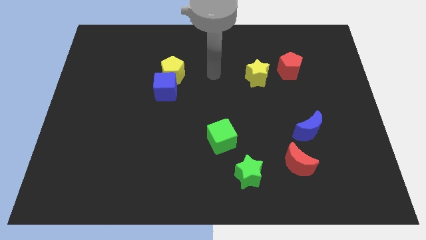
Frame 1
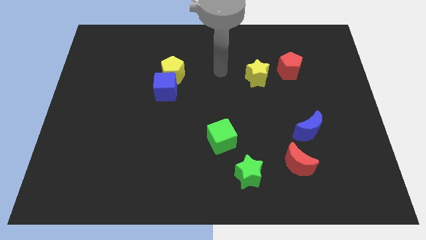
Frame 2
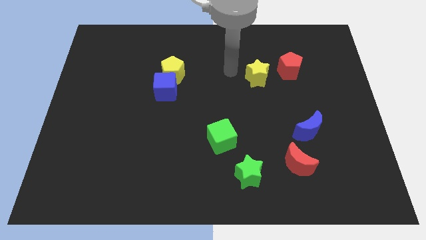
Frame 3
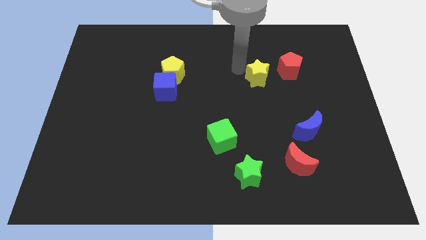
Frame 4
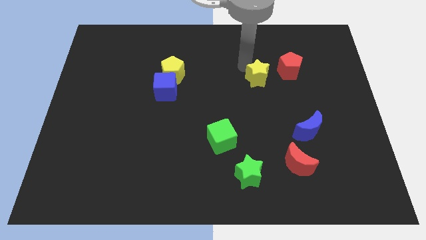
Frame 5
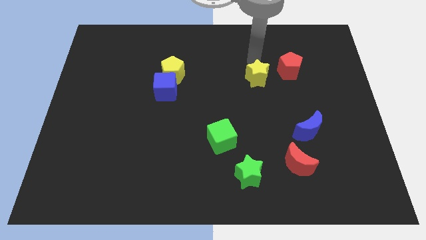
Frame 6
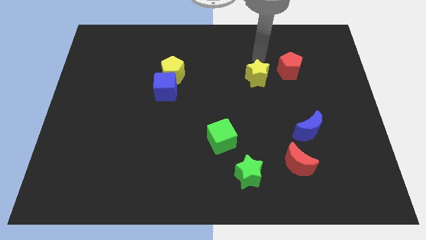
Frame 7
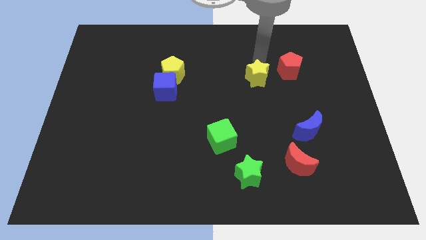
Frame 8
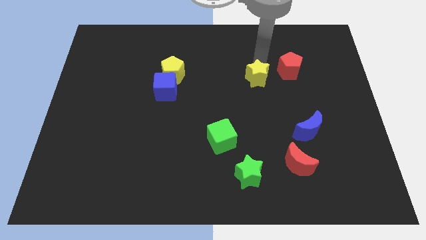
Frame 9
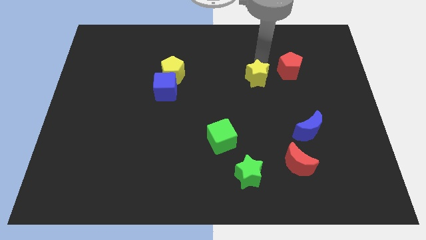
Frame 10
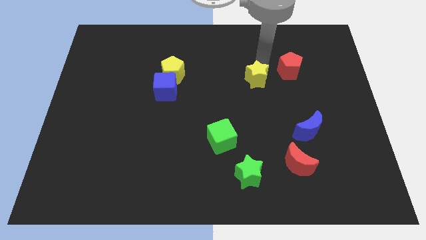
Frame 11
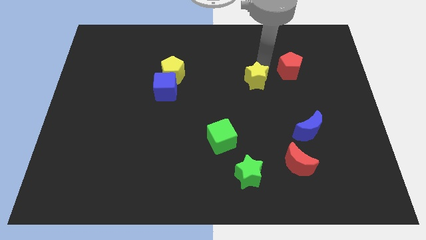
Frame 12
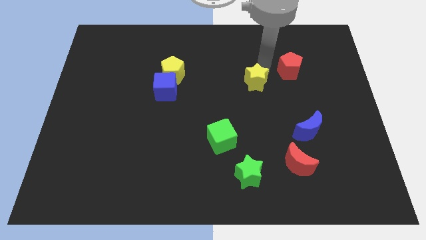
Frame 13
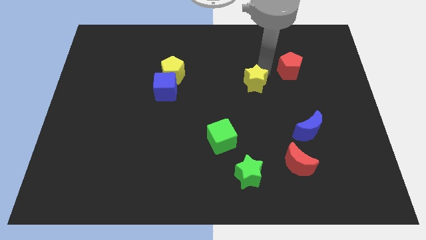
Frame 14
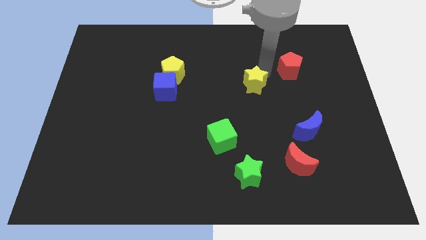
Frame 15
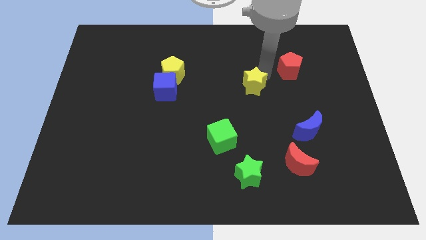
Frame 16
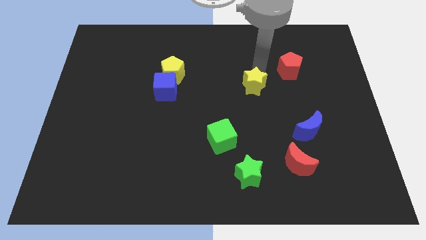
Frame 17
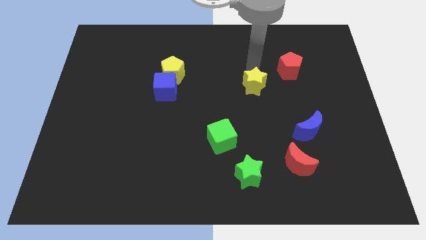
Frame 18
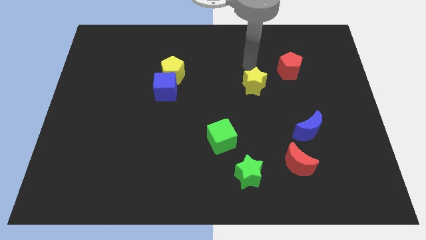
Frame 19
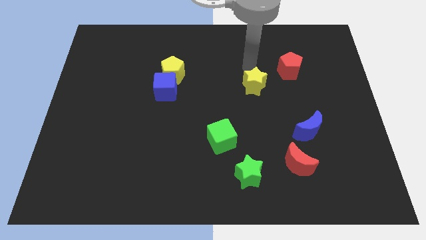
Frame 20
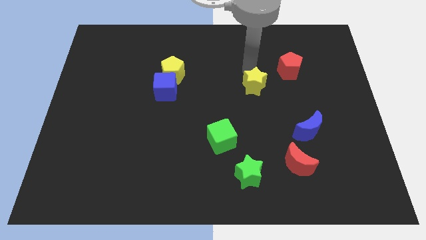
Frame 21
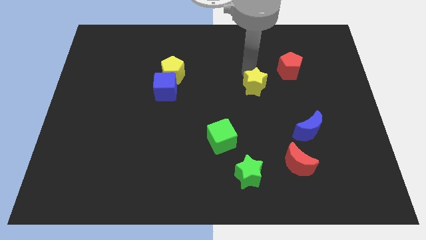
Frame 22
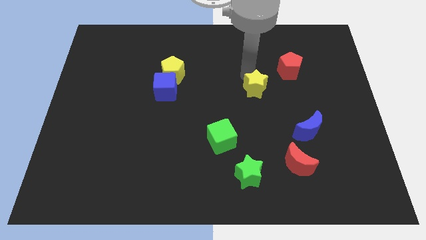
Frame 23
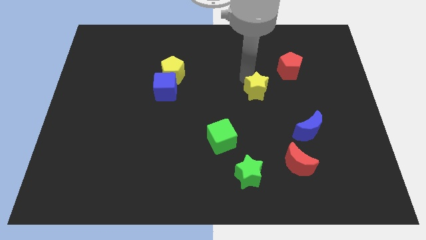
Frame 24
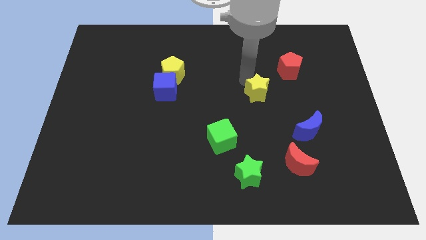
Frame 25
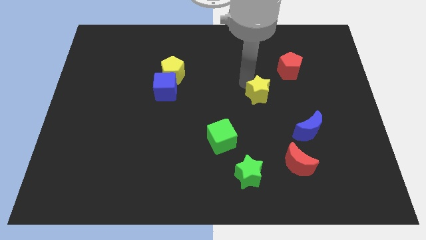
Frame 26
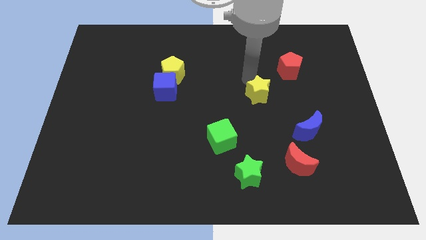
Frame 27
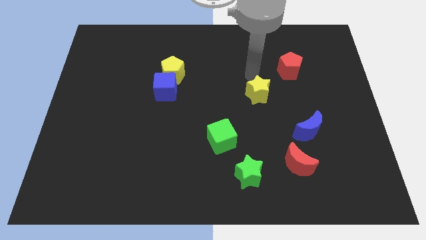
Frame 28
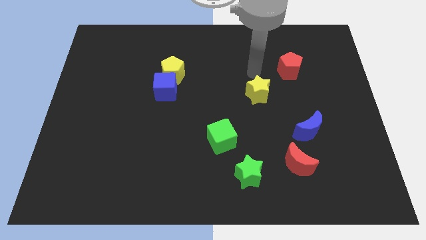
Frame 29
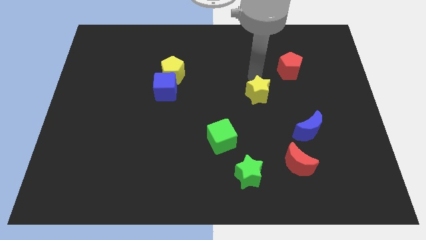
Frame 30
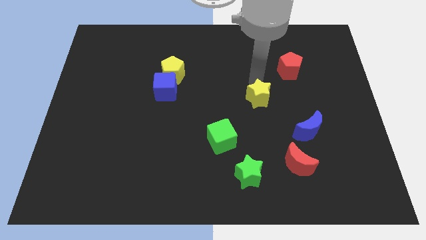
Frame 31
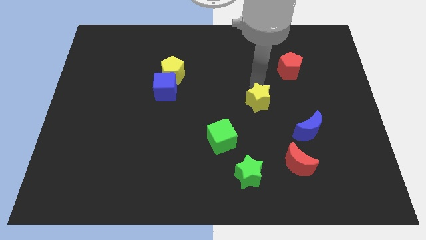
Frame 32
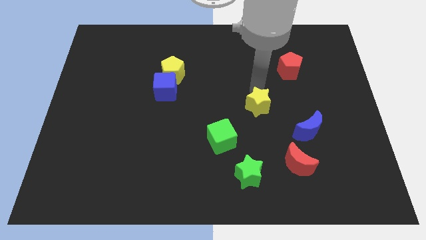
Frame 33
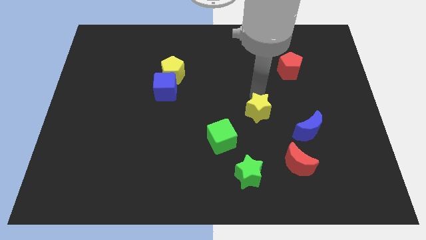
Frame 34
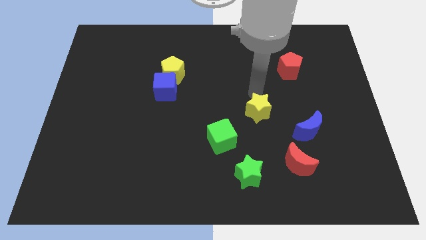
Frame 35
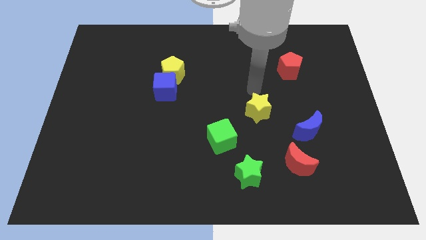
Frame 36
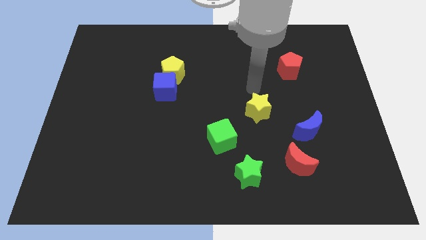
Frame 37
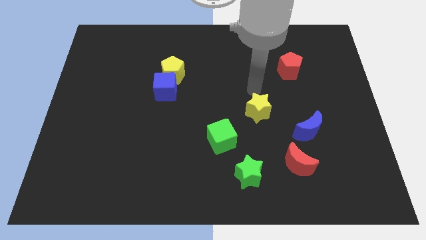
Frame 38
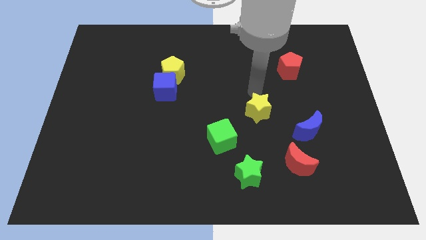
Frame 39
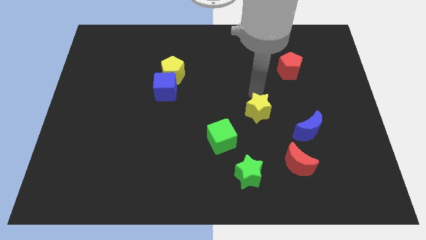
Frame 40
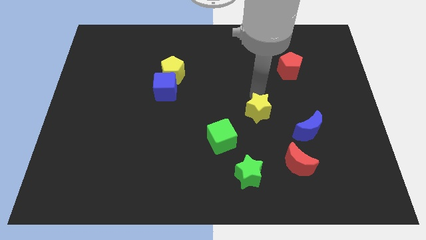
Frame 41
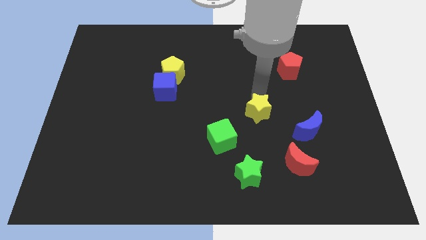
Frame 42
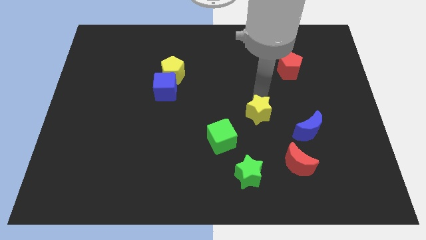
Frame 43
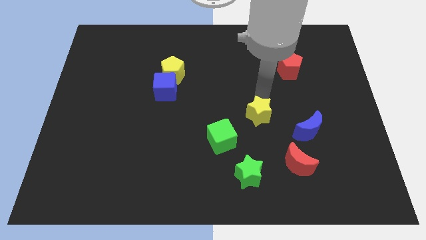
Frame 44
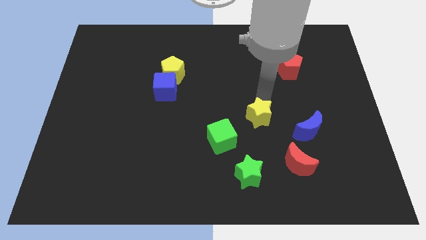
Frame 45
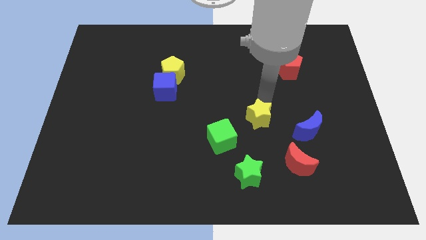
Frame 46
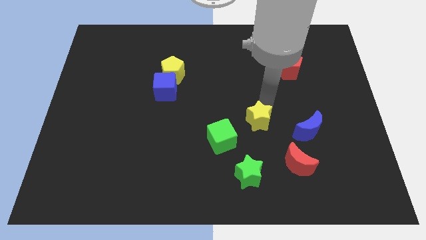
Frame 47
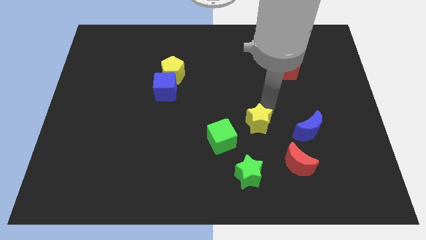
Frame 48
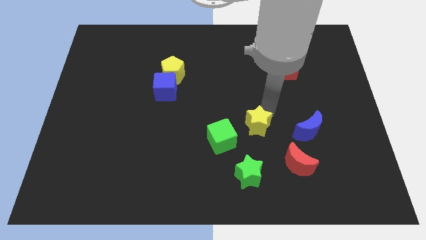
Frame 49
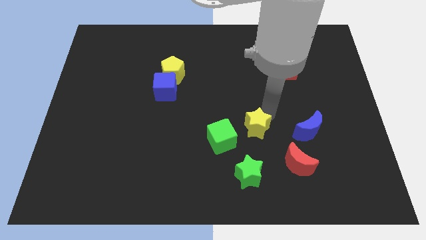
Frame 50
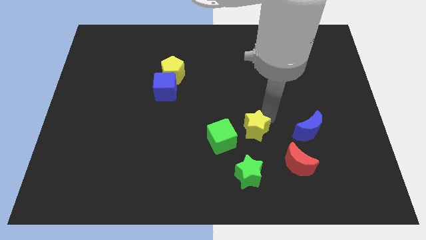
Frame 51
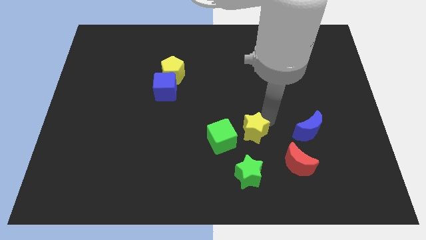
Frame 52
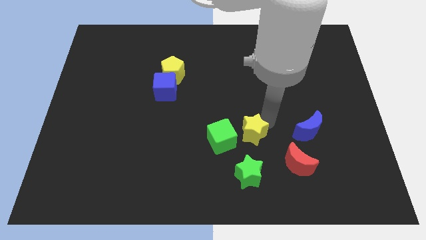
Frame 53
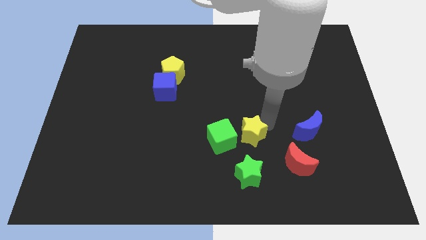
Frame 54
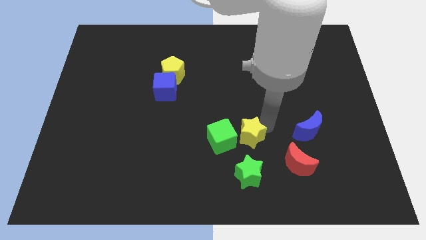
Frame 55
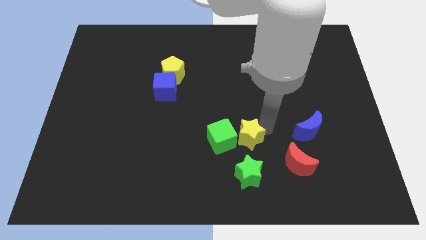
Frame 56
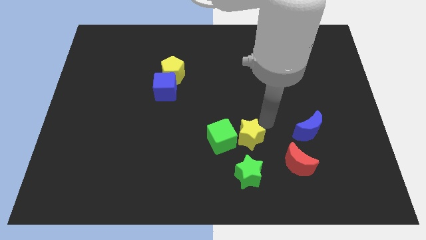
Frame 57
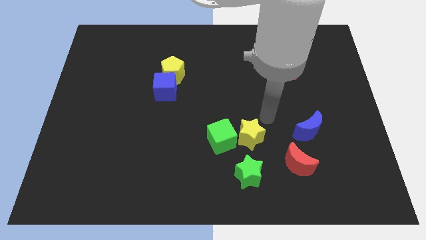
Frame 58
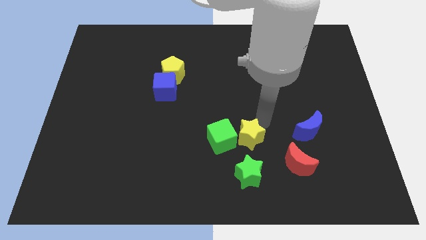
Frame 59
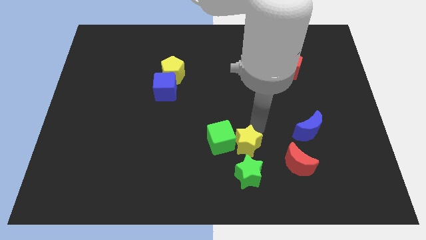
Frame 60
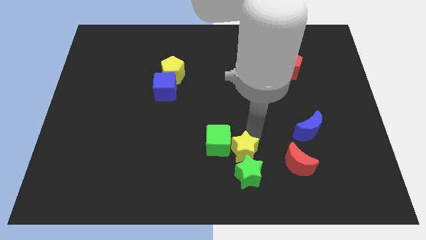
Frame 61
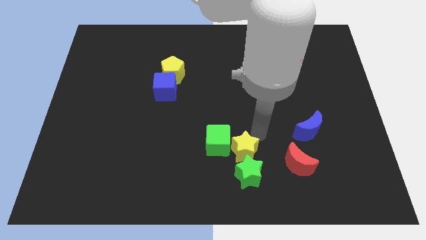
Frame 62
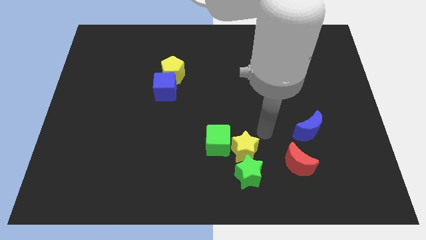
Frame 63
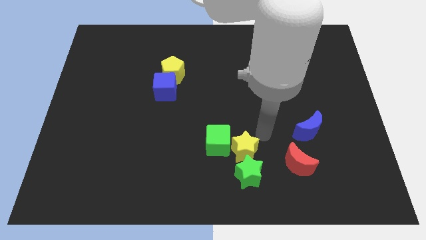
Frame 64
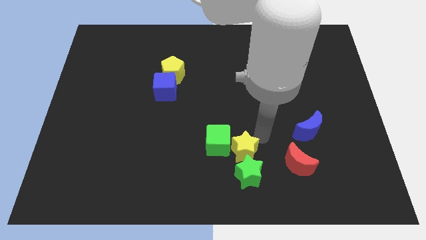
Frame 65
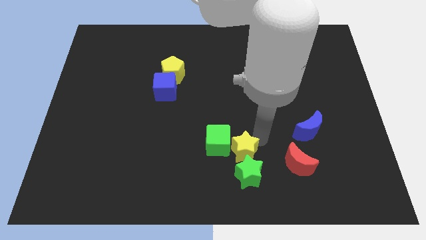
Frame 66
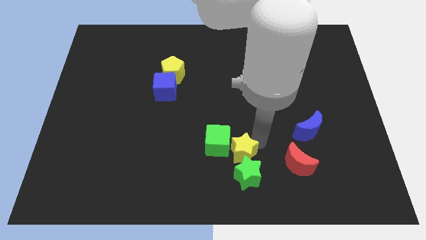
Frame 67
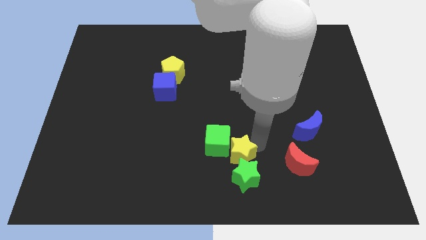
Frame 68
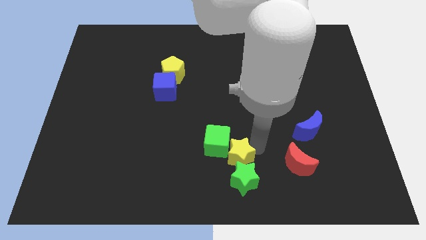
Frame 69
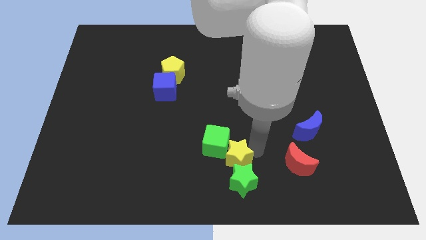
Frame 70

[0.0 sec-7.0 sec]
push the yellow star to the bottom

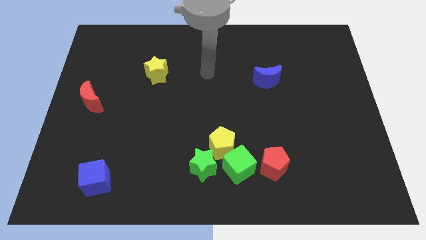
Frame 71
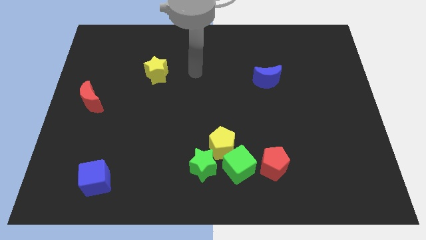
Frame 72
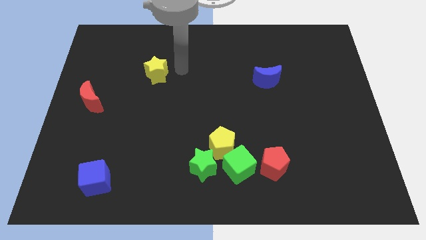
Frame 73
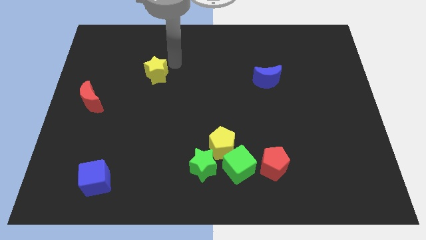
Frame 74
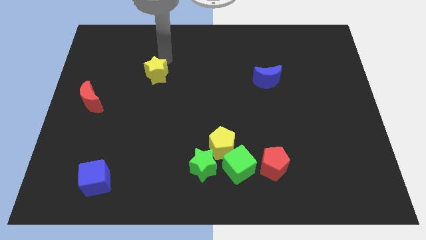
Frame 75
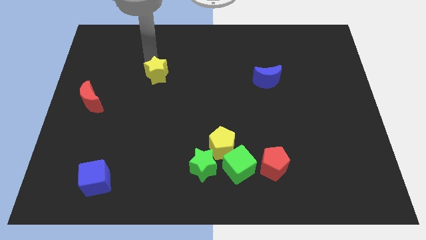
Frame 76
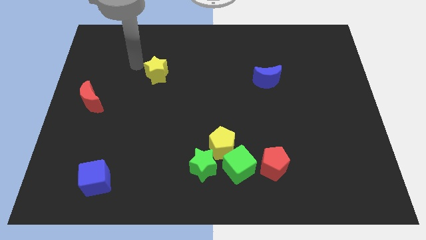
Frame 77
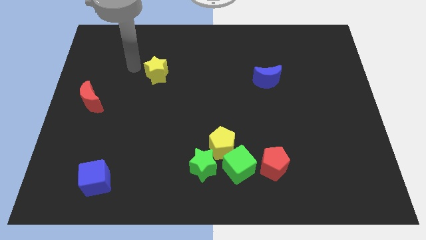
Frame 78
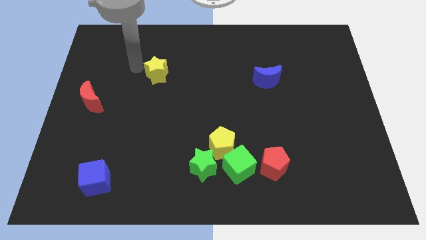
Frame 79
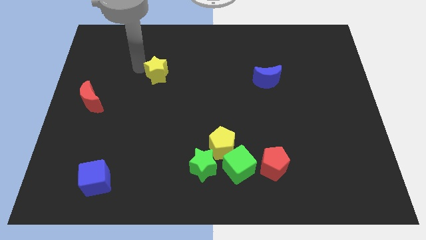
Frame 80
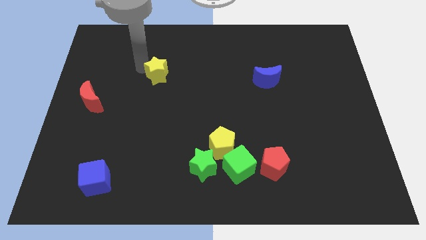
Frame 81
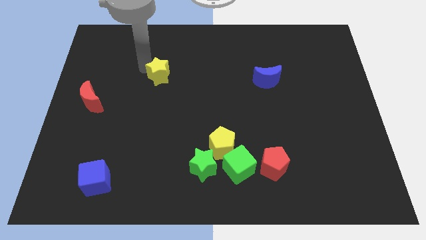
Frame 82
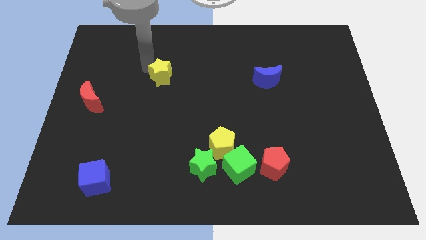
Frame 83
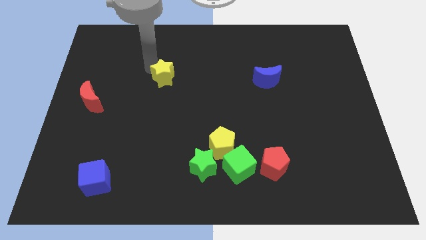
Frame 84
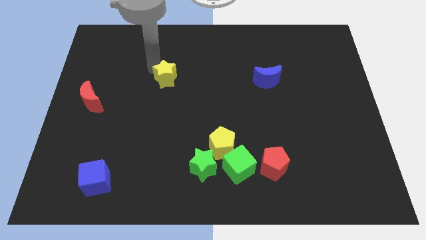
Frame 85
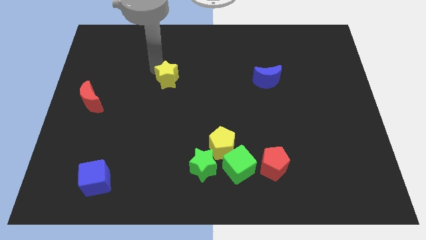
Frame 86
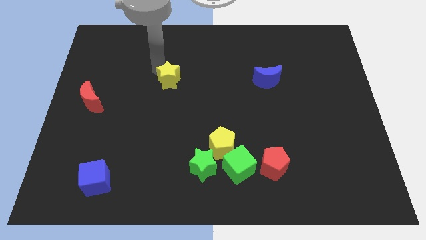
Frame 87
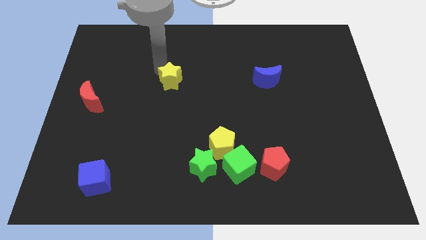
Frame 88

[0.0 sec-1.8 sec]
push the yellow star to the middle of the board
